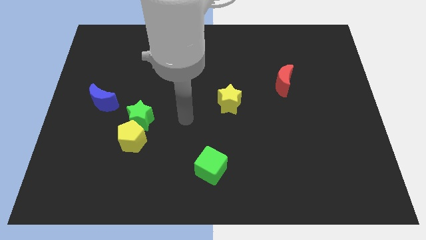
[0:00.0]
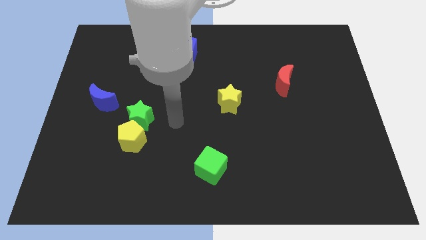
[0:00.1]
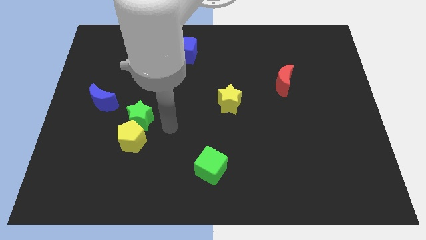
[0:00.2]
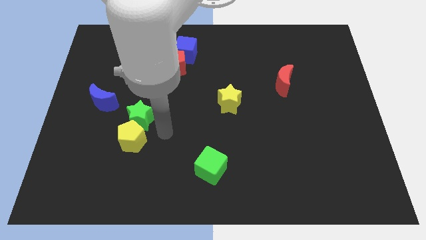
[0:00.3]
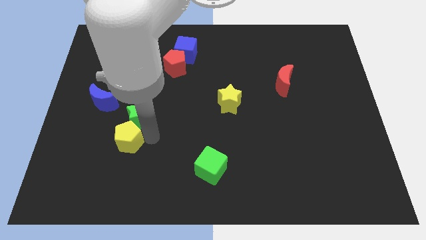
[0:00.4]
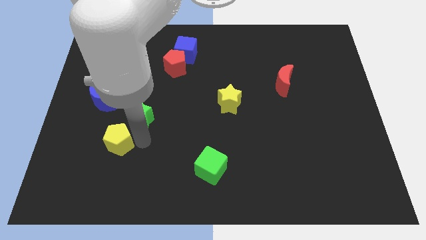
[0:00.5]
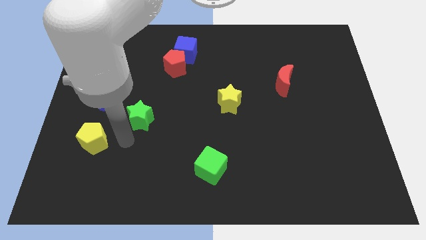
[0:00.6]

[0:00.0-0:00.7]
move the green star away from the yellow pentagon

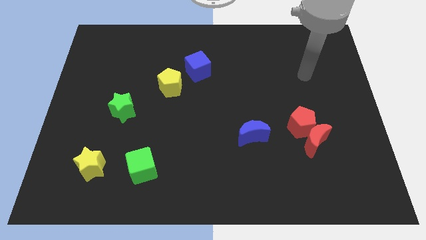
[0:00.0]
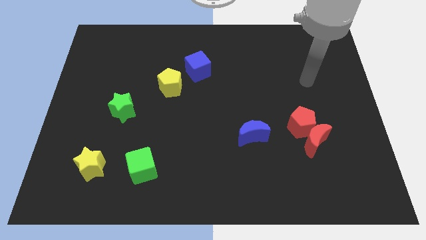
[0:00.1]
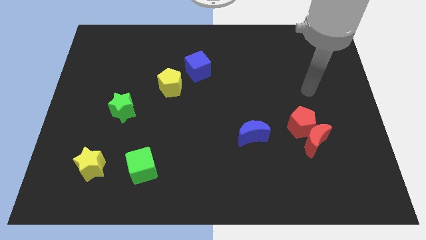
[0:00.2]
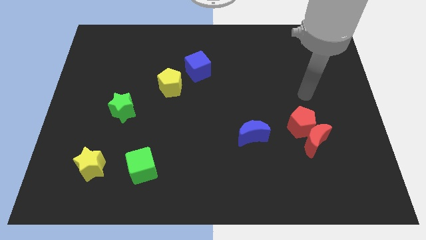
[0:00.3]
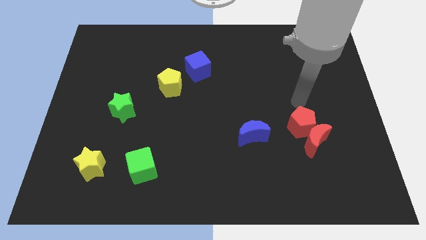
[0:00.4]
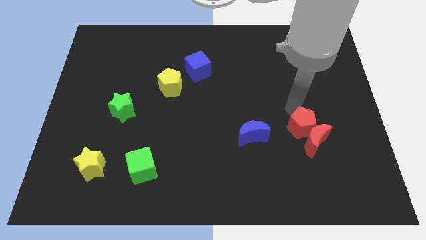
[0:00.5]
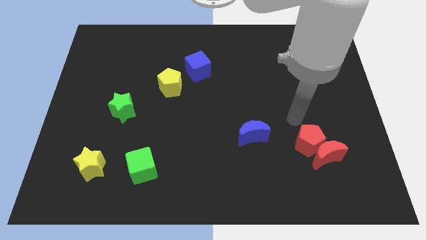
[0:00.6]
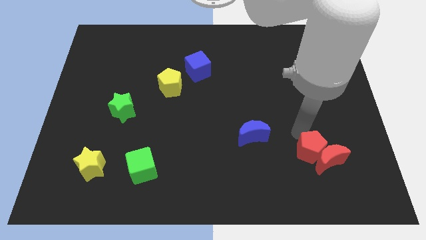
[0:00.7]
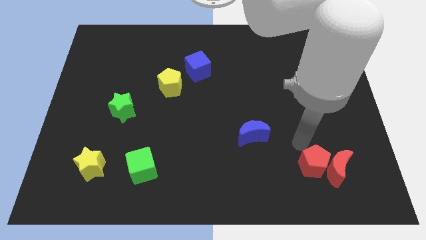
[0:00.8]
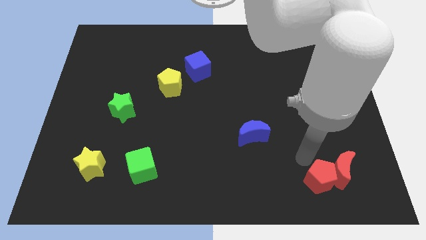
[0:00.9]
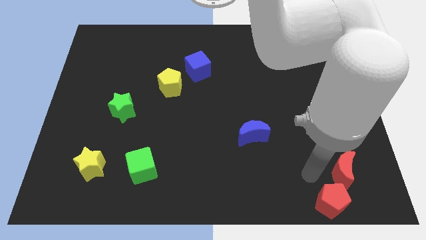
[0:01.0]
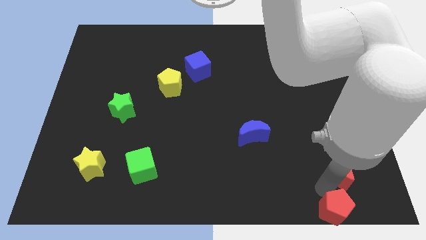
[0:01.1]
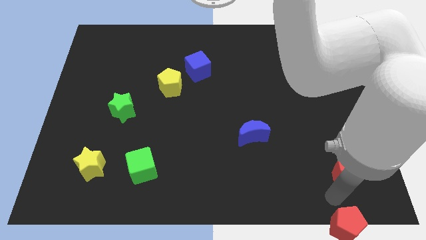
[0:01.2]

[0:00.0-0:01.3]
separate the red moon from the red pentagon

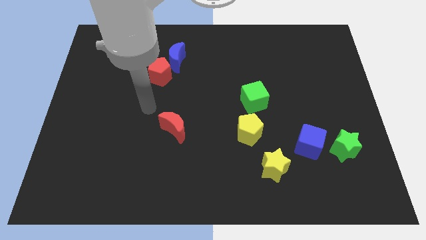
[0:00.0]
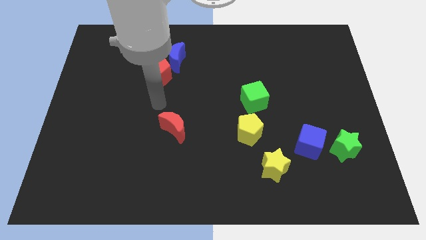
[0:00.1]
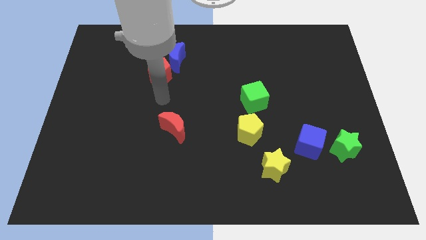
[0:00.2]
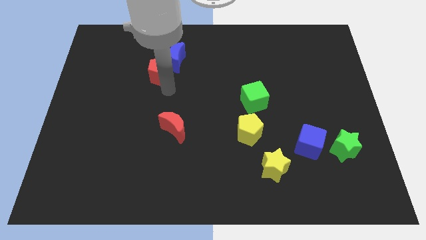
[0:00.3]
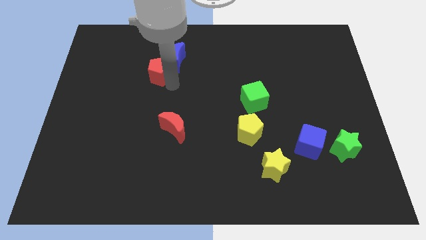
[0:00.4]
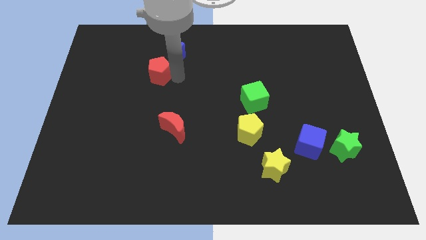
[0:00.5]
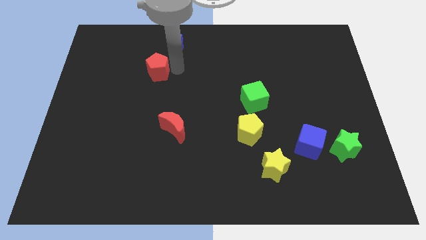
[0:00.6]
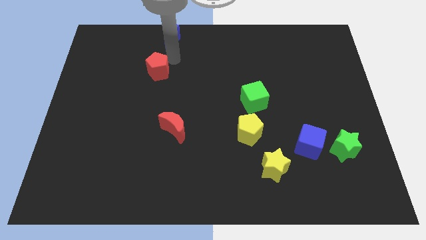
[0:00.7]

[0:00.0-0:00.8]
pull the red pentagon apart from the blue moon

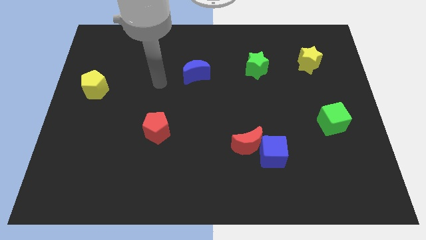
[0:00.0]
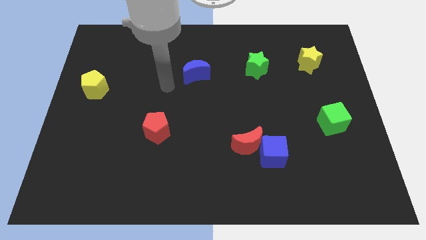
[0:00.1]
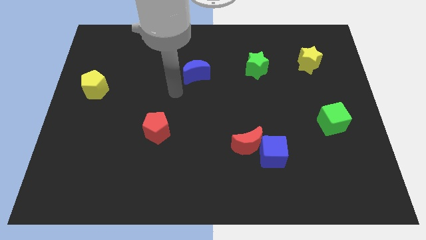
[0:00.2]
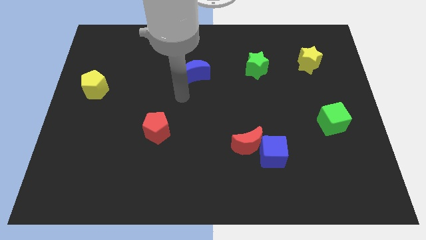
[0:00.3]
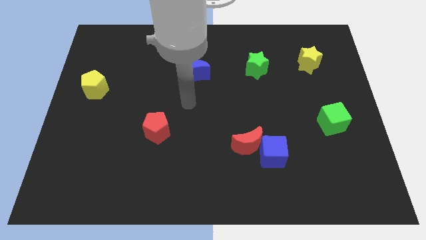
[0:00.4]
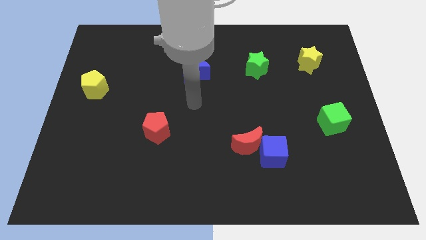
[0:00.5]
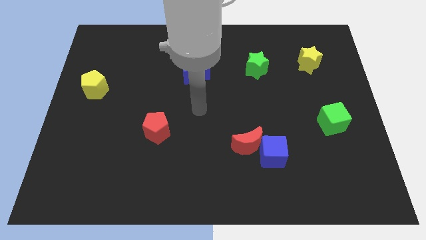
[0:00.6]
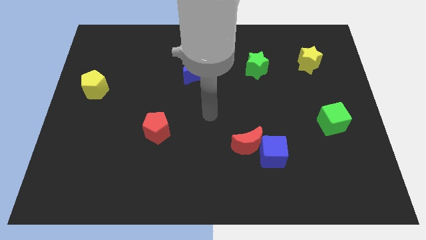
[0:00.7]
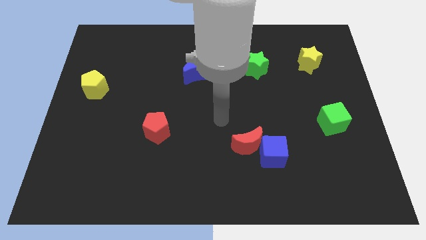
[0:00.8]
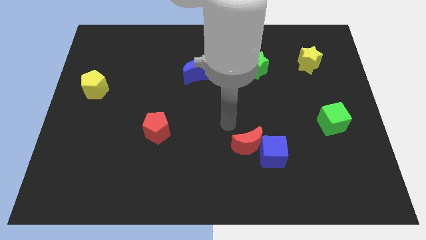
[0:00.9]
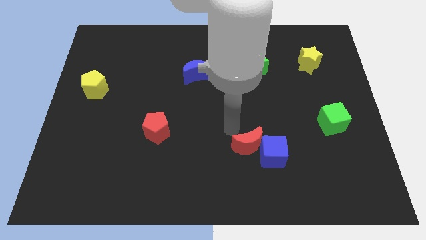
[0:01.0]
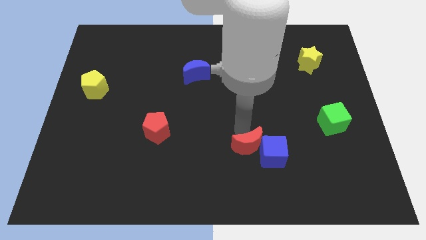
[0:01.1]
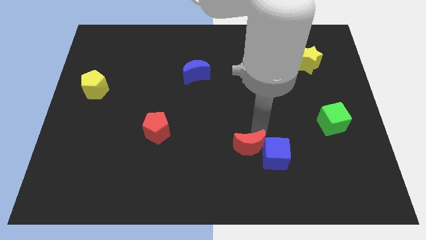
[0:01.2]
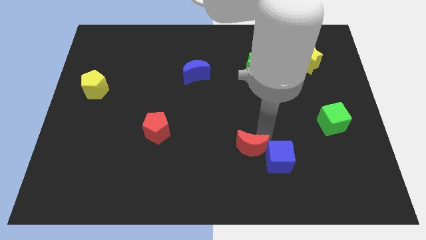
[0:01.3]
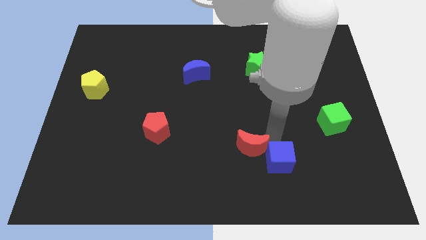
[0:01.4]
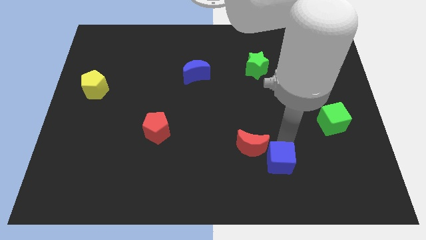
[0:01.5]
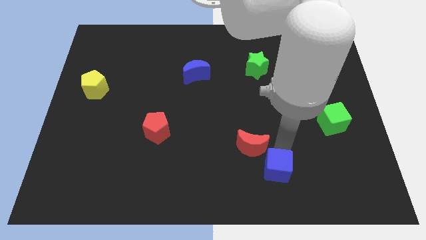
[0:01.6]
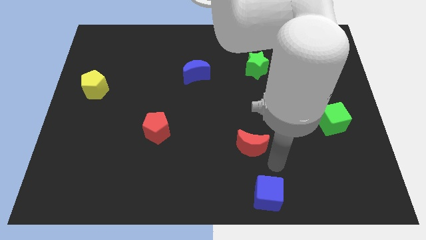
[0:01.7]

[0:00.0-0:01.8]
move the red moon away from the blue cube

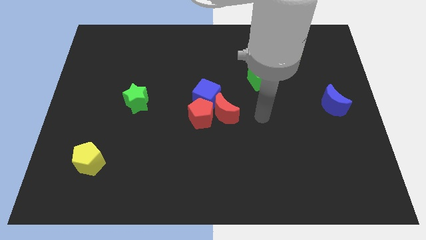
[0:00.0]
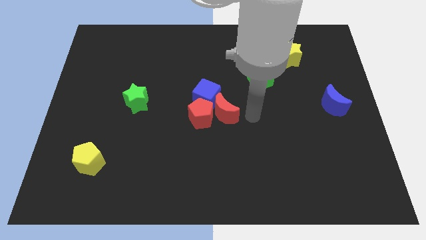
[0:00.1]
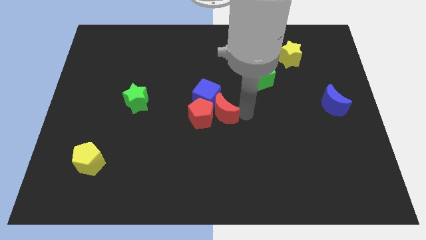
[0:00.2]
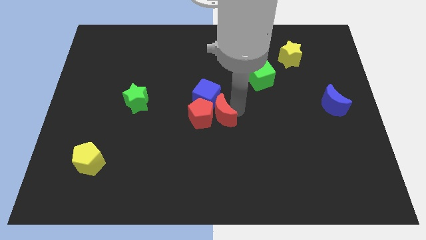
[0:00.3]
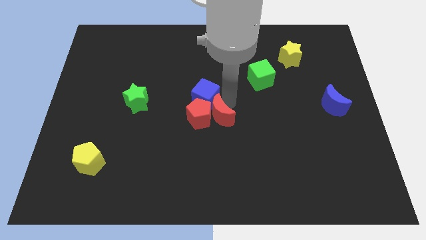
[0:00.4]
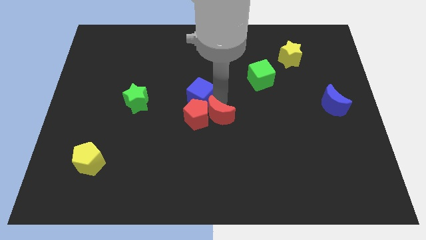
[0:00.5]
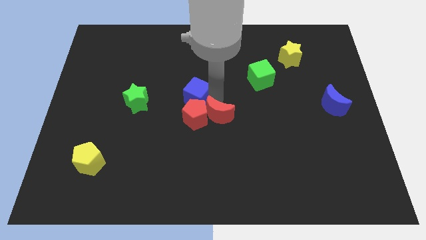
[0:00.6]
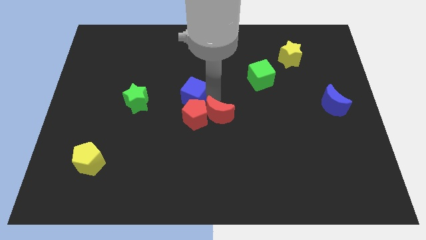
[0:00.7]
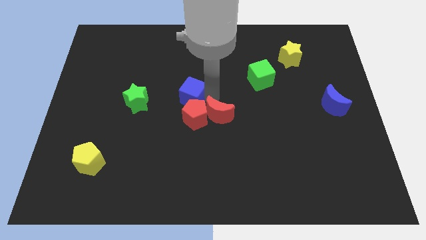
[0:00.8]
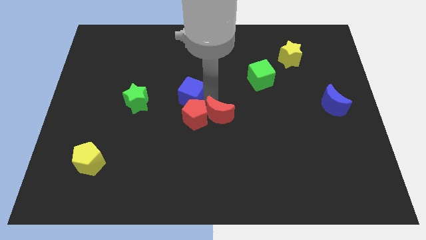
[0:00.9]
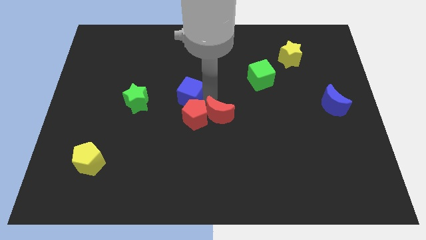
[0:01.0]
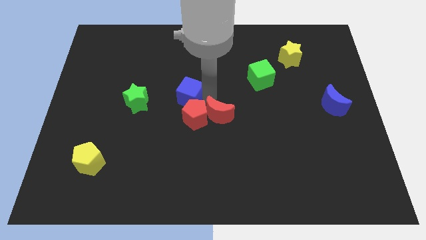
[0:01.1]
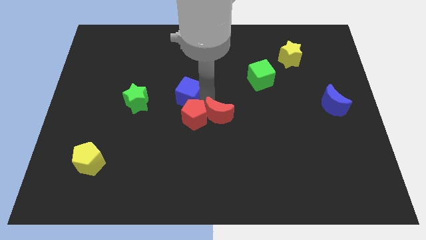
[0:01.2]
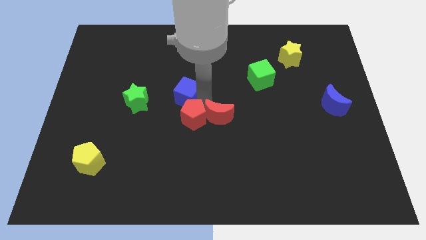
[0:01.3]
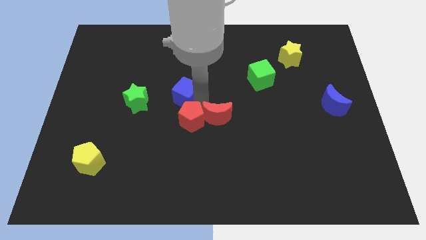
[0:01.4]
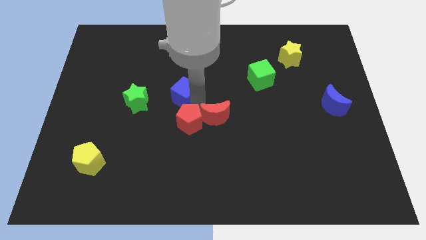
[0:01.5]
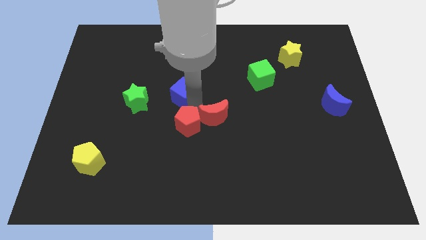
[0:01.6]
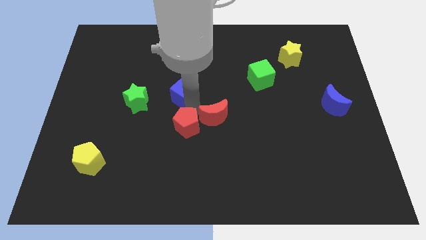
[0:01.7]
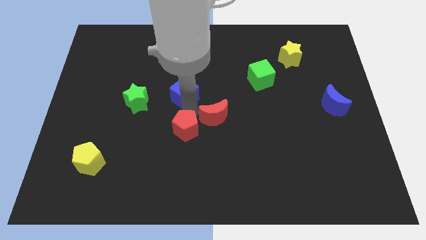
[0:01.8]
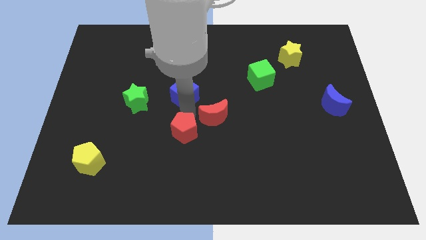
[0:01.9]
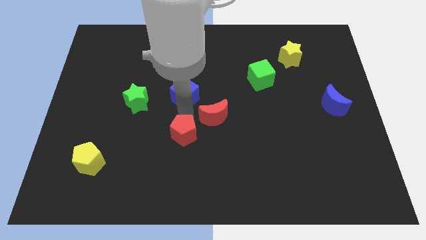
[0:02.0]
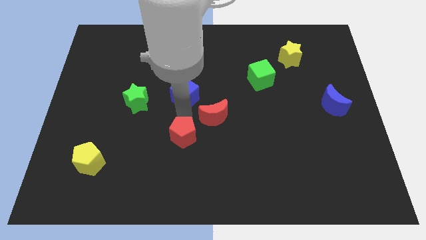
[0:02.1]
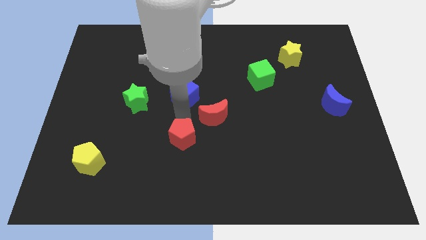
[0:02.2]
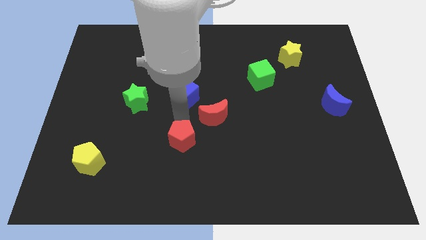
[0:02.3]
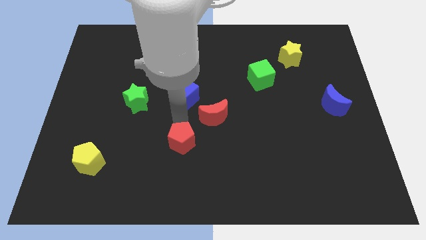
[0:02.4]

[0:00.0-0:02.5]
move the red pentagon away from the red moon and blue cube

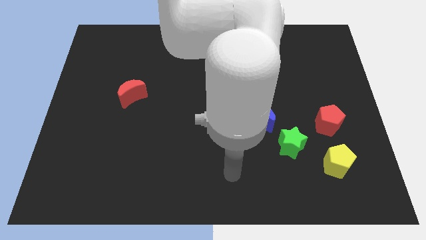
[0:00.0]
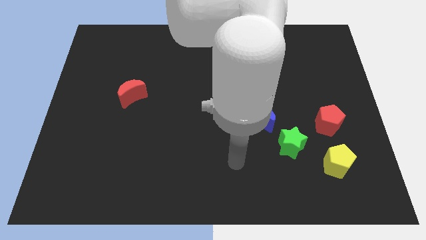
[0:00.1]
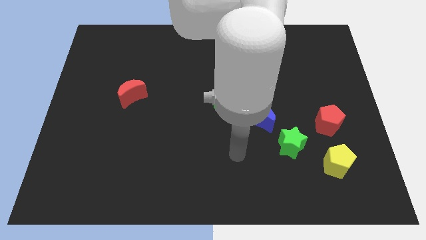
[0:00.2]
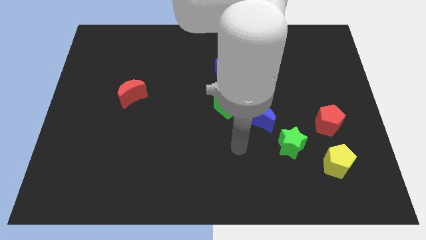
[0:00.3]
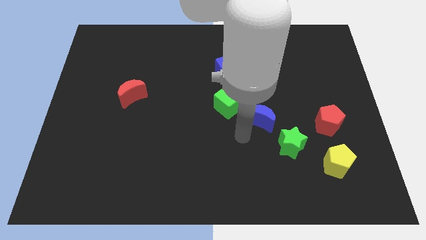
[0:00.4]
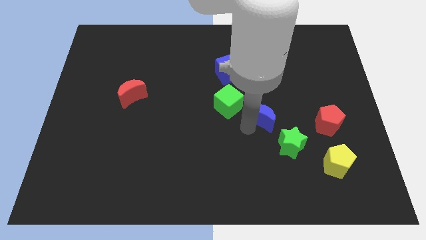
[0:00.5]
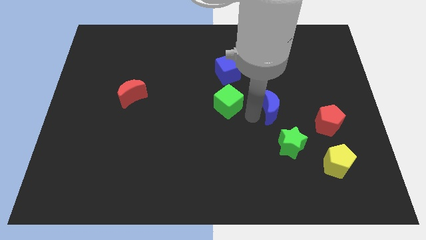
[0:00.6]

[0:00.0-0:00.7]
pull the green cube apart from the blue moon

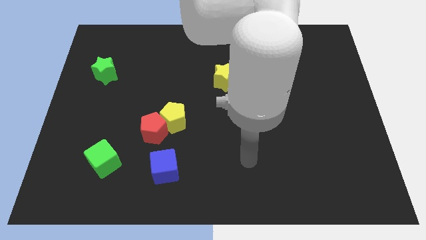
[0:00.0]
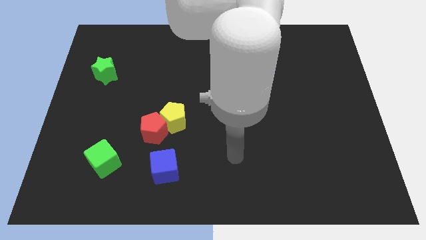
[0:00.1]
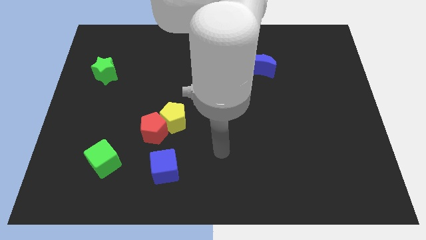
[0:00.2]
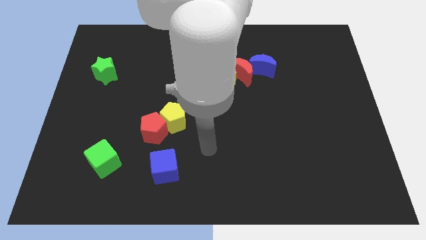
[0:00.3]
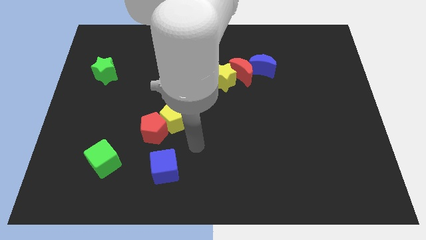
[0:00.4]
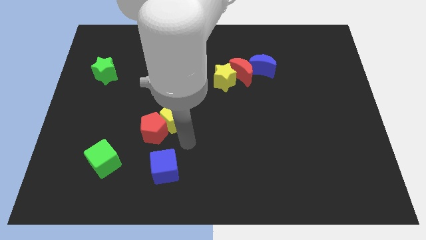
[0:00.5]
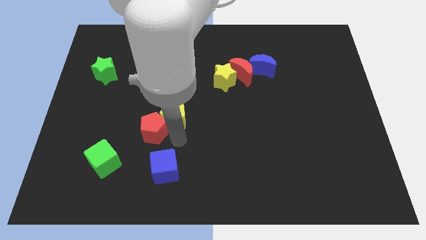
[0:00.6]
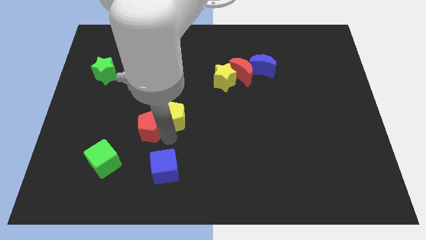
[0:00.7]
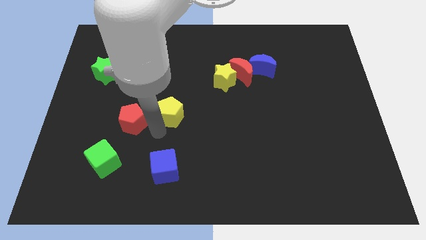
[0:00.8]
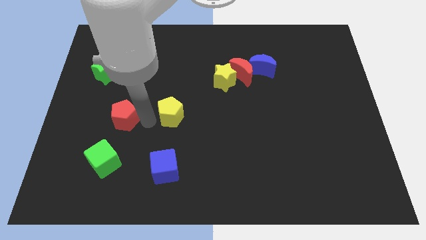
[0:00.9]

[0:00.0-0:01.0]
pull the yellow pentagon apart from the red pentagon

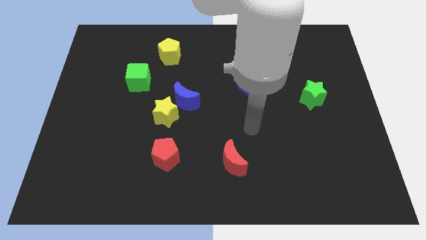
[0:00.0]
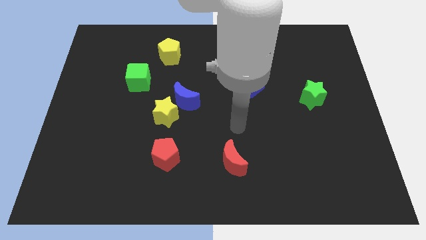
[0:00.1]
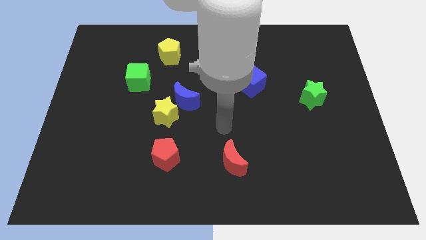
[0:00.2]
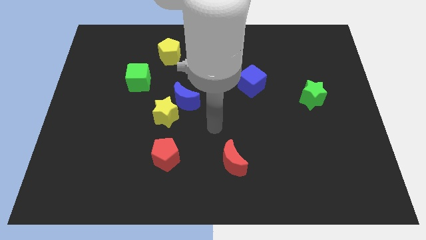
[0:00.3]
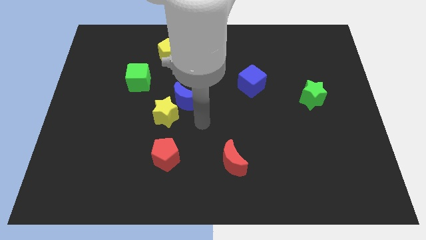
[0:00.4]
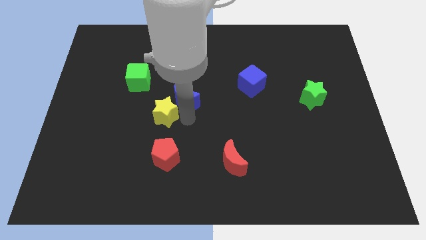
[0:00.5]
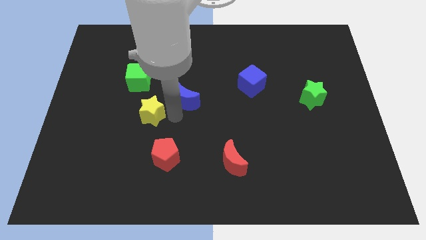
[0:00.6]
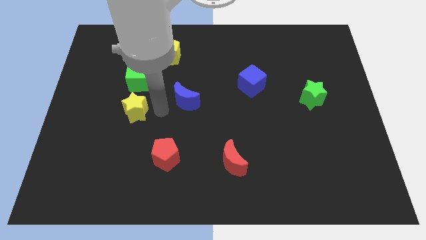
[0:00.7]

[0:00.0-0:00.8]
separate the blue moon from the yellow star
